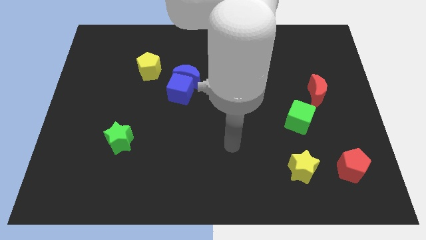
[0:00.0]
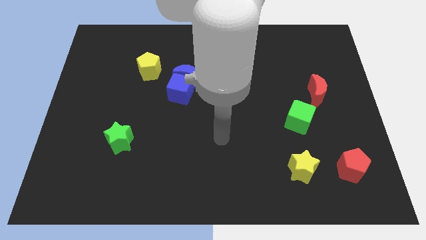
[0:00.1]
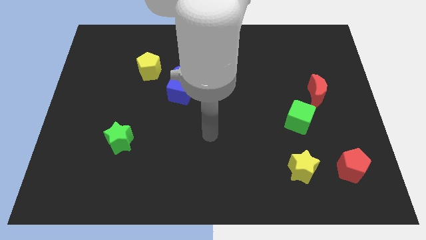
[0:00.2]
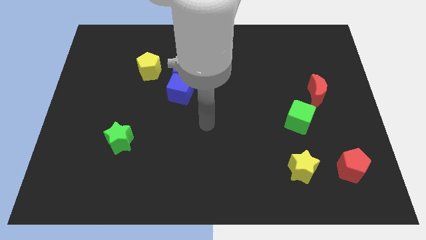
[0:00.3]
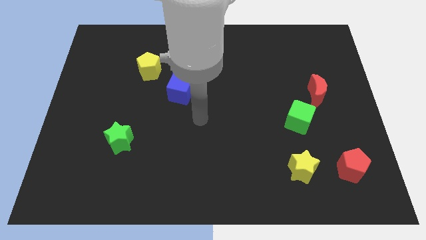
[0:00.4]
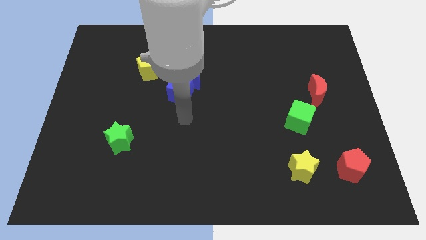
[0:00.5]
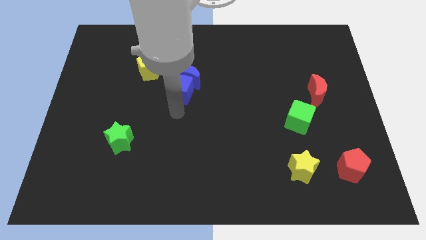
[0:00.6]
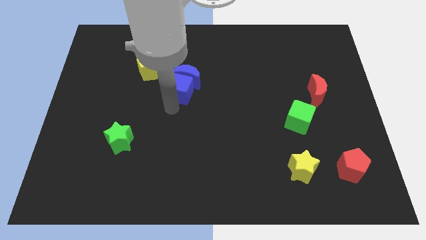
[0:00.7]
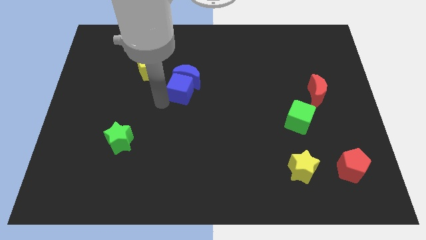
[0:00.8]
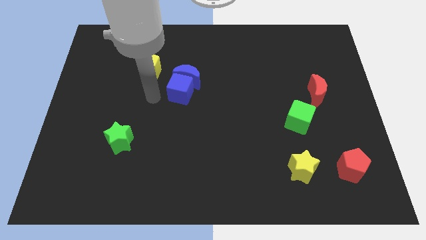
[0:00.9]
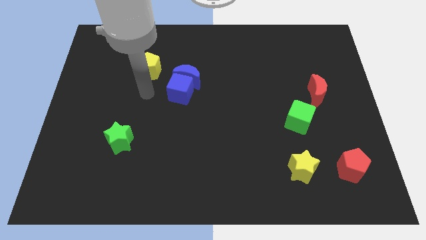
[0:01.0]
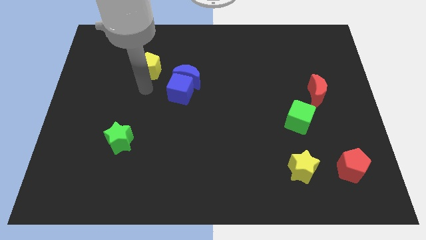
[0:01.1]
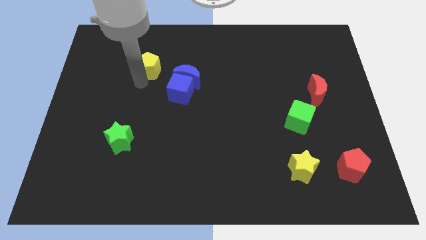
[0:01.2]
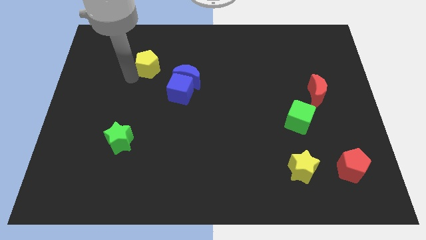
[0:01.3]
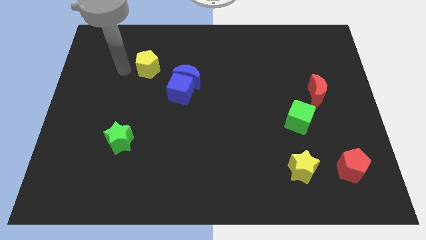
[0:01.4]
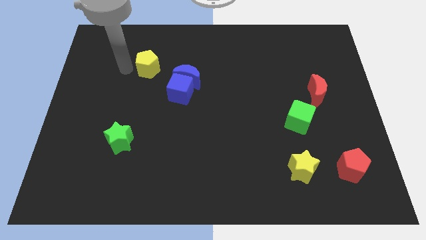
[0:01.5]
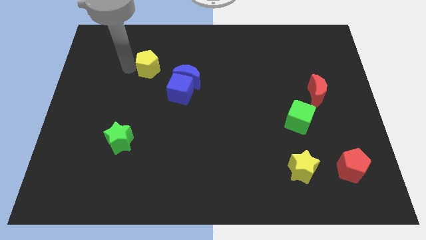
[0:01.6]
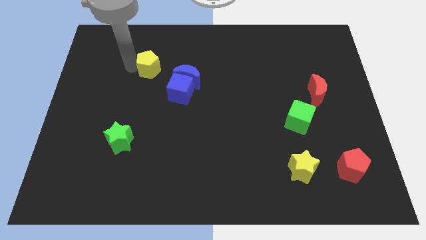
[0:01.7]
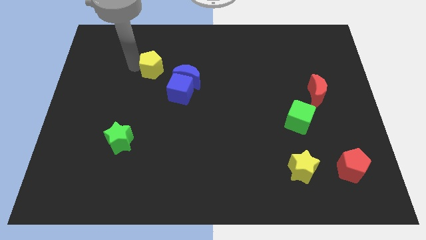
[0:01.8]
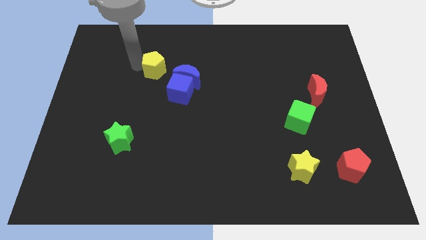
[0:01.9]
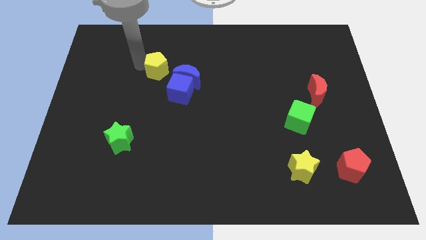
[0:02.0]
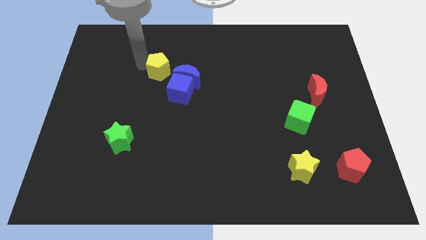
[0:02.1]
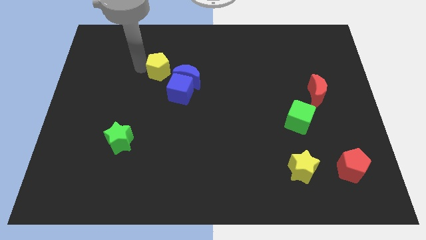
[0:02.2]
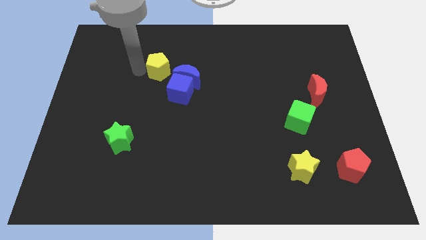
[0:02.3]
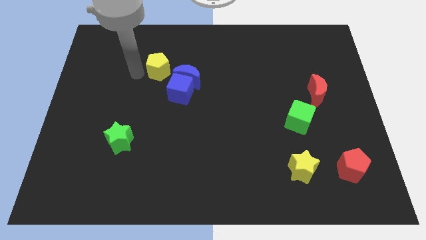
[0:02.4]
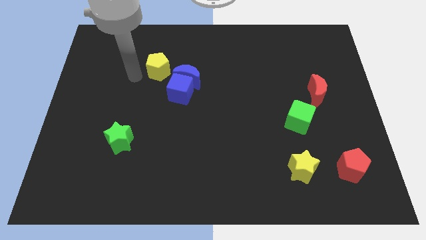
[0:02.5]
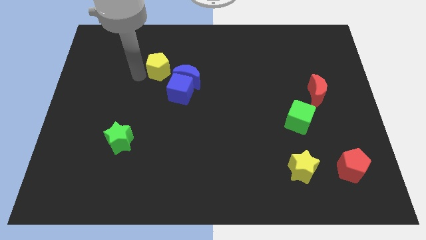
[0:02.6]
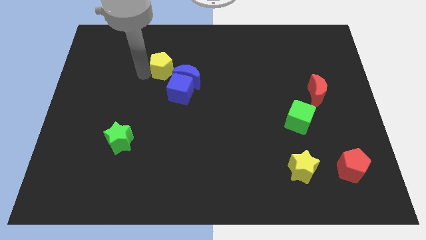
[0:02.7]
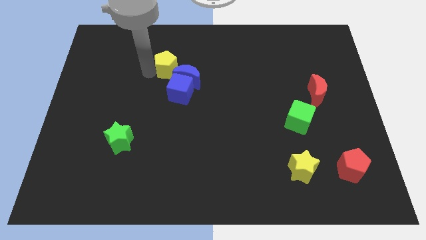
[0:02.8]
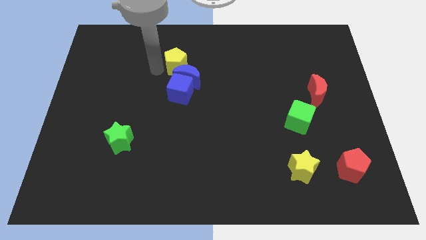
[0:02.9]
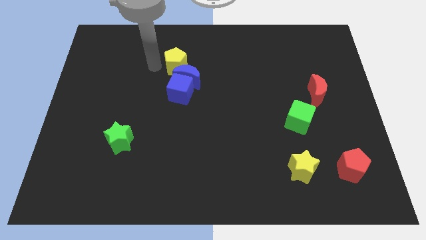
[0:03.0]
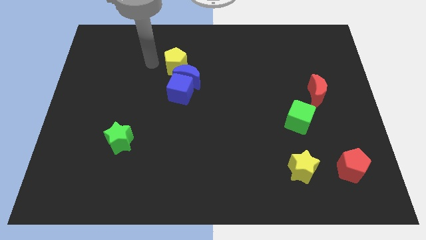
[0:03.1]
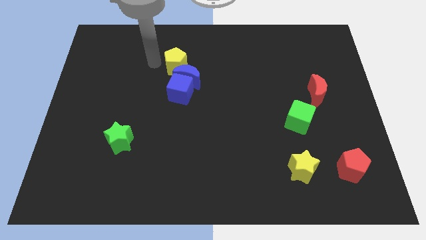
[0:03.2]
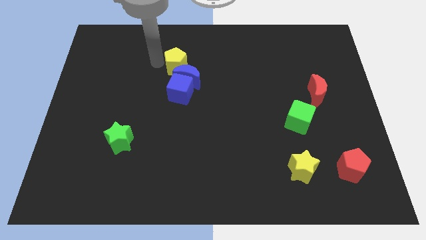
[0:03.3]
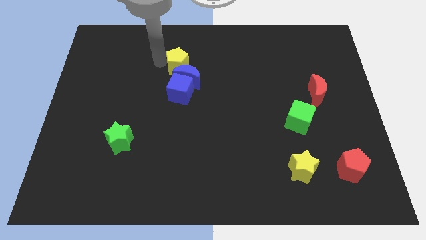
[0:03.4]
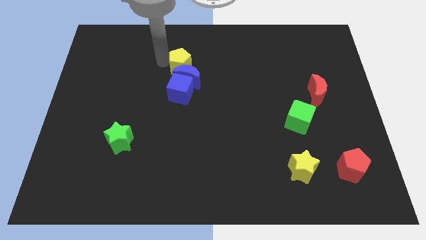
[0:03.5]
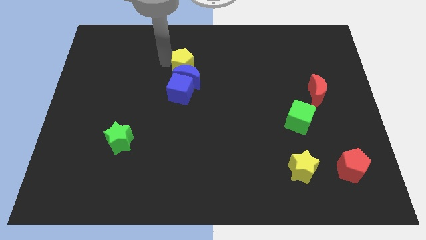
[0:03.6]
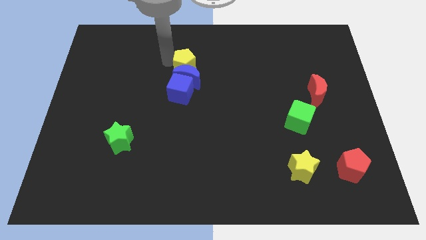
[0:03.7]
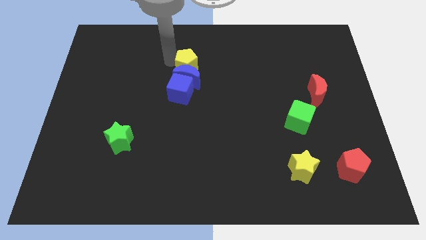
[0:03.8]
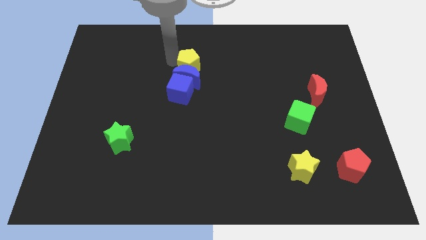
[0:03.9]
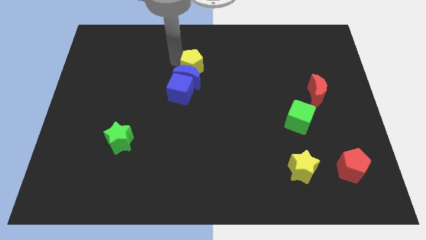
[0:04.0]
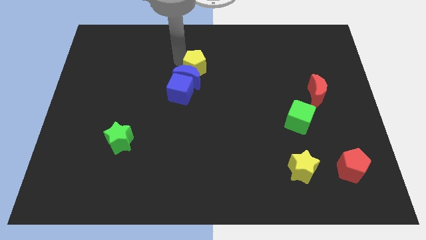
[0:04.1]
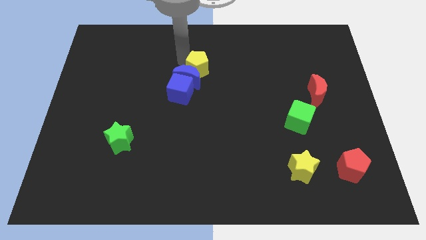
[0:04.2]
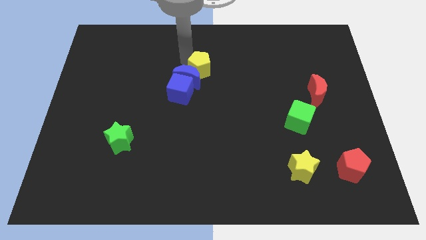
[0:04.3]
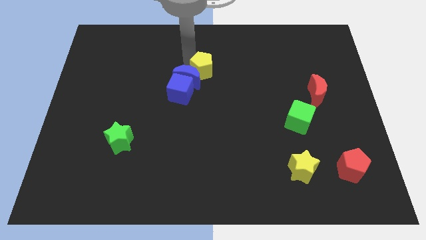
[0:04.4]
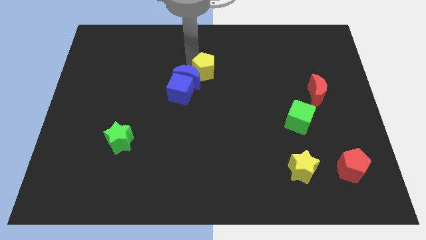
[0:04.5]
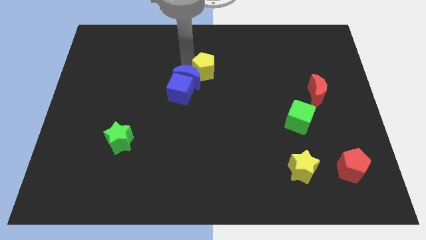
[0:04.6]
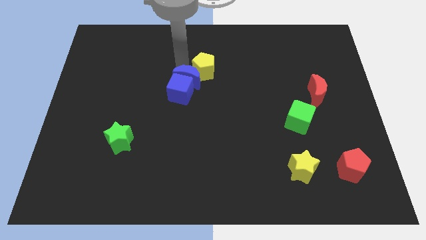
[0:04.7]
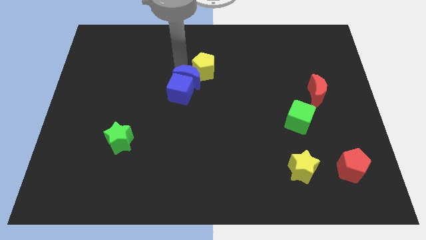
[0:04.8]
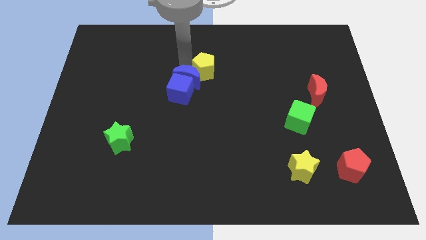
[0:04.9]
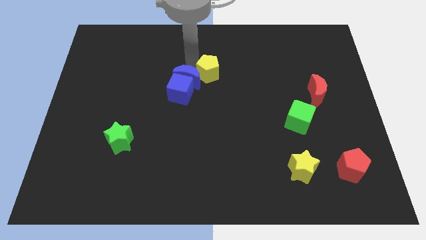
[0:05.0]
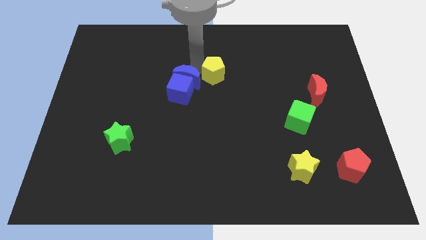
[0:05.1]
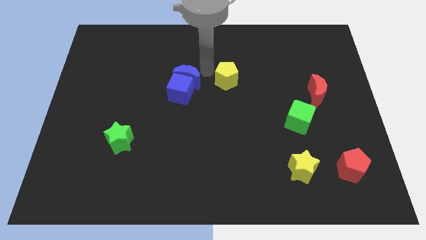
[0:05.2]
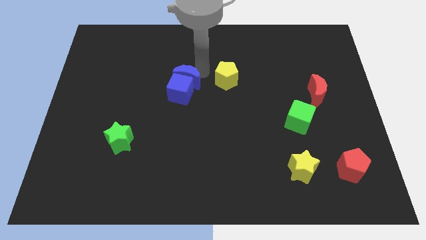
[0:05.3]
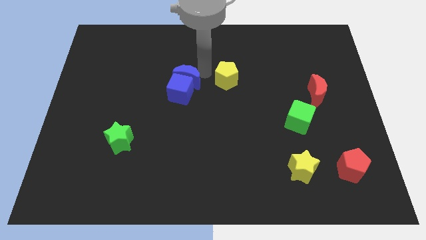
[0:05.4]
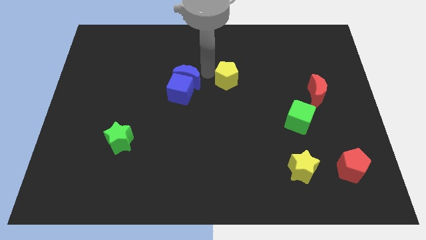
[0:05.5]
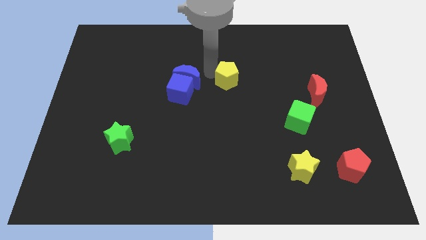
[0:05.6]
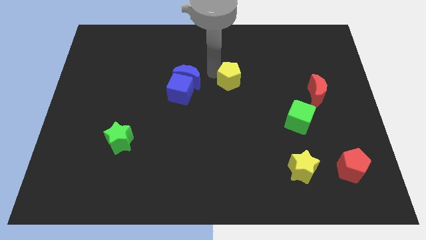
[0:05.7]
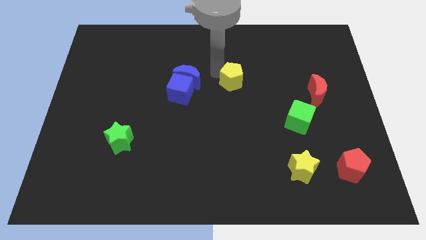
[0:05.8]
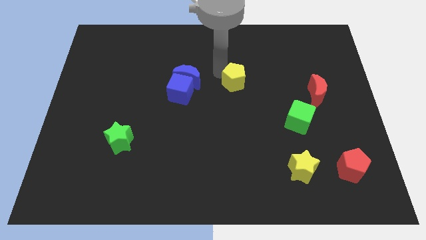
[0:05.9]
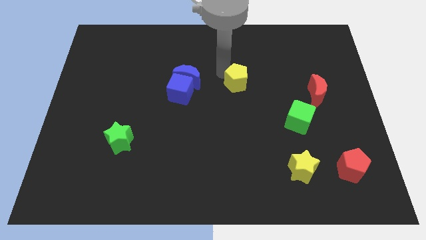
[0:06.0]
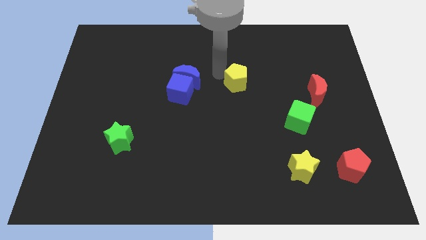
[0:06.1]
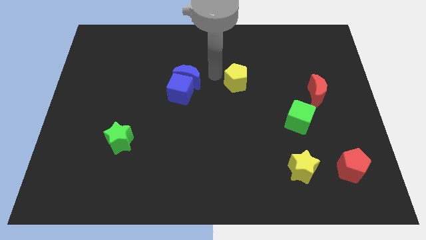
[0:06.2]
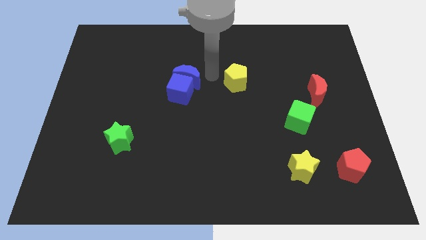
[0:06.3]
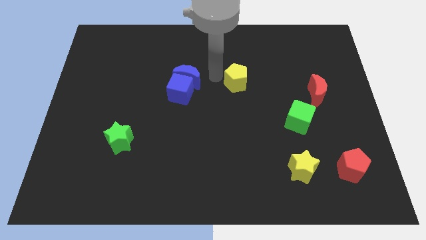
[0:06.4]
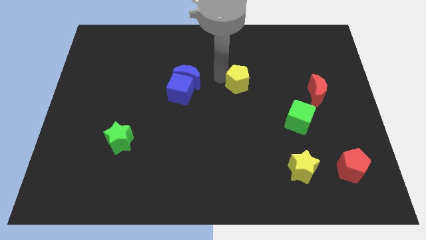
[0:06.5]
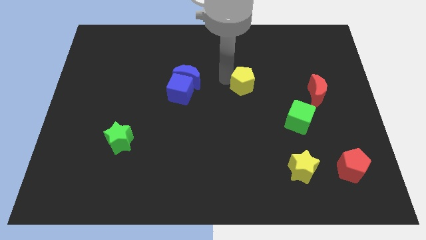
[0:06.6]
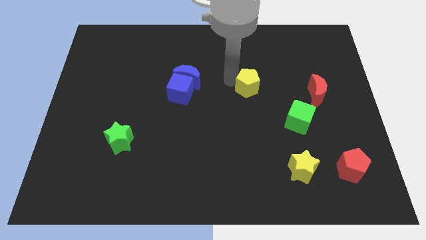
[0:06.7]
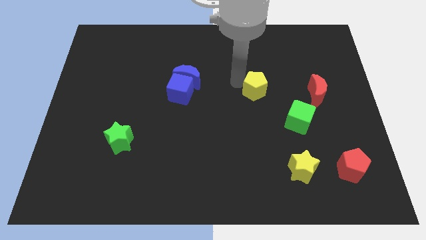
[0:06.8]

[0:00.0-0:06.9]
push the yellow pentagon to the left side of the red moon

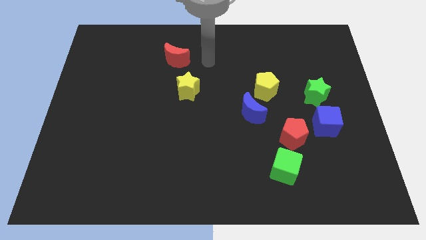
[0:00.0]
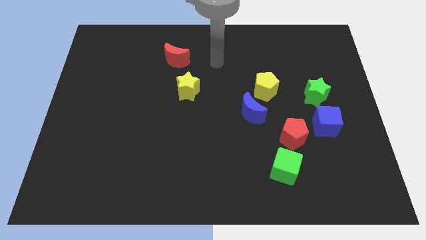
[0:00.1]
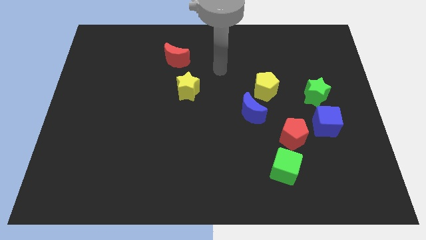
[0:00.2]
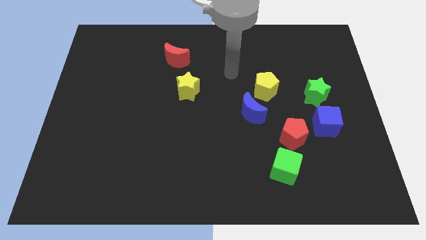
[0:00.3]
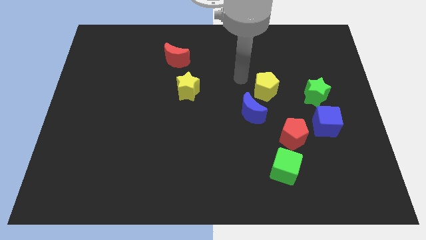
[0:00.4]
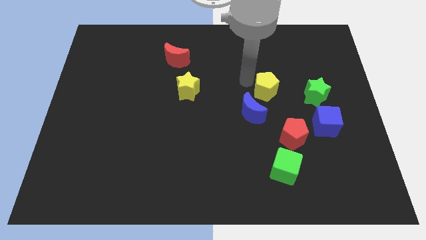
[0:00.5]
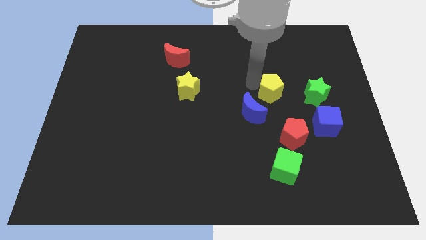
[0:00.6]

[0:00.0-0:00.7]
slide the yellow pentagon to the top of the red pentagon
